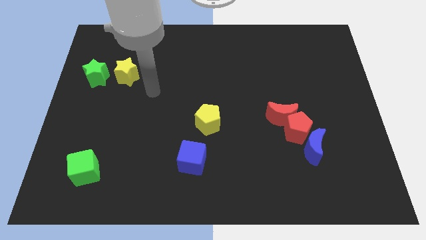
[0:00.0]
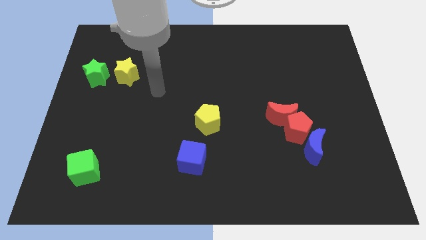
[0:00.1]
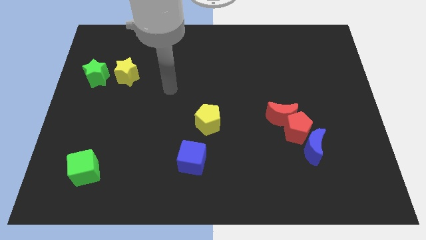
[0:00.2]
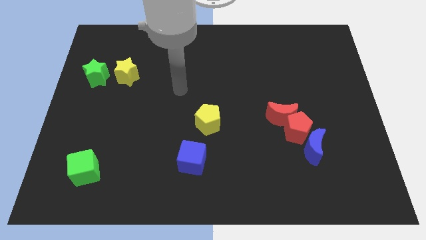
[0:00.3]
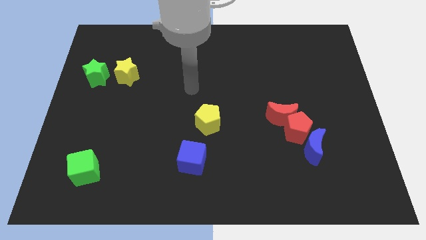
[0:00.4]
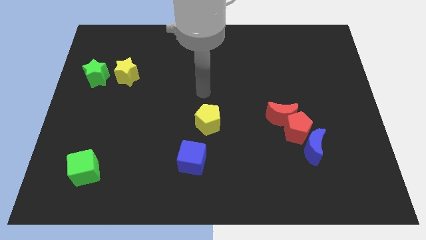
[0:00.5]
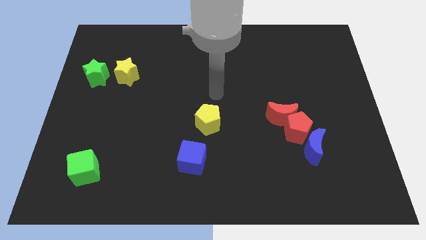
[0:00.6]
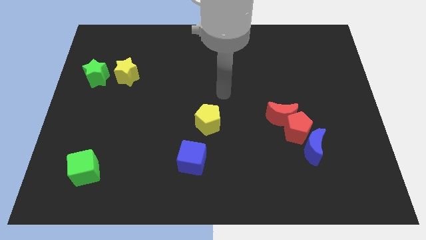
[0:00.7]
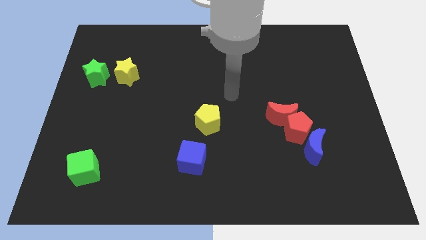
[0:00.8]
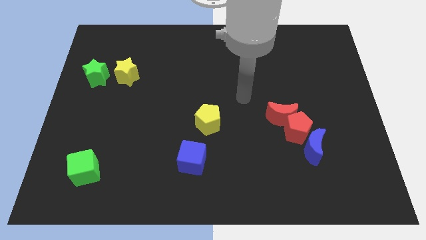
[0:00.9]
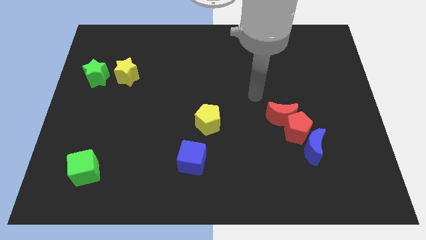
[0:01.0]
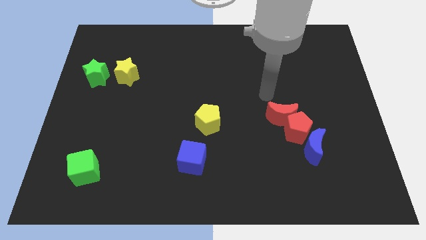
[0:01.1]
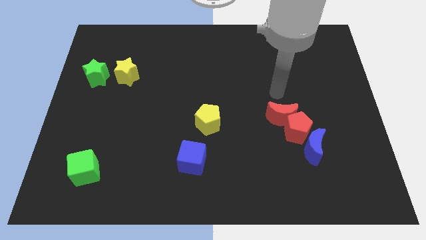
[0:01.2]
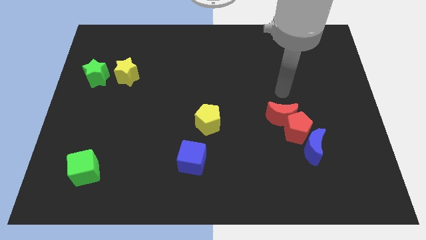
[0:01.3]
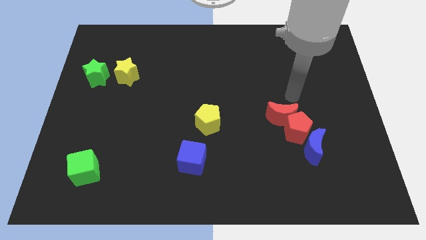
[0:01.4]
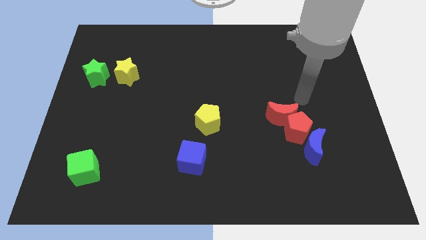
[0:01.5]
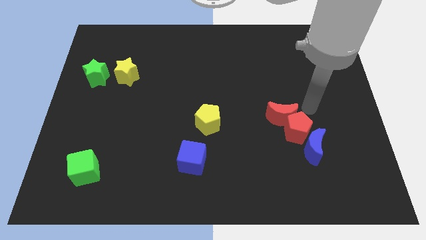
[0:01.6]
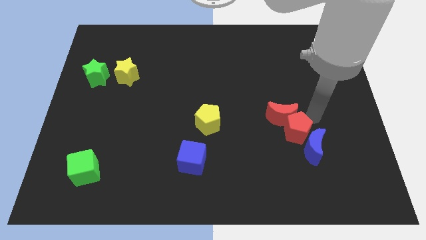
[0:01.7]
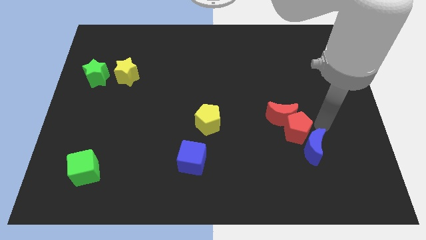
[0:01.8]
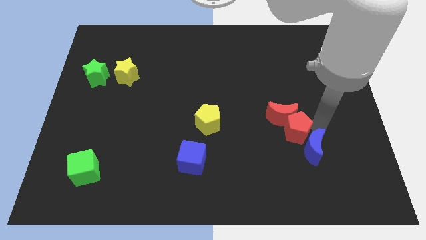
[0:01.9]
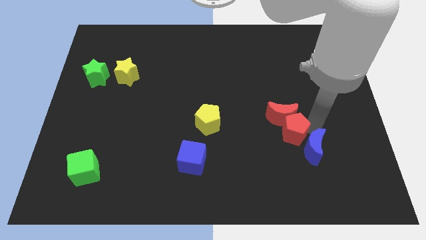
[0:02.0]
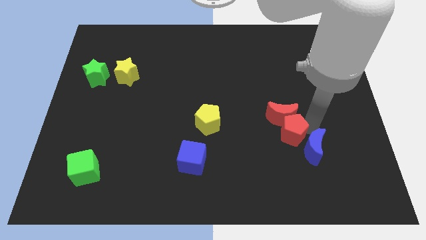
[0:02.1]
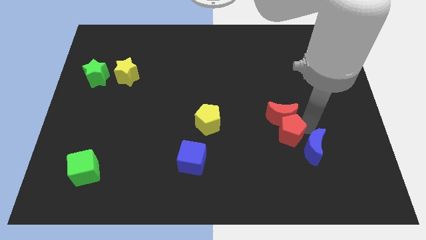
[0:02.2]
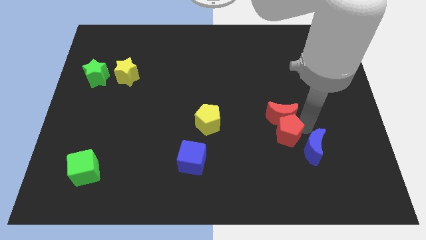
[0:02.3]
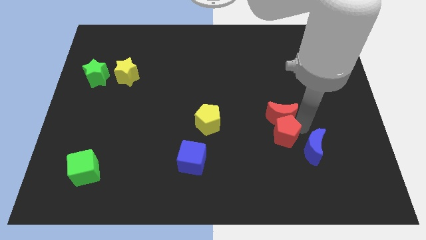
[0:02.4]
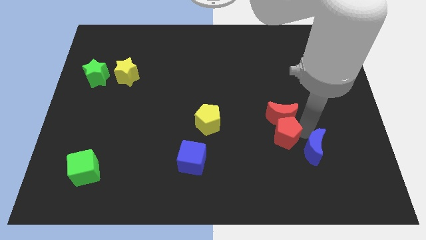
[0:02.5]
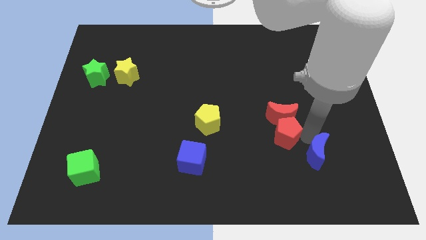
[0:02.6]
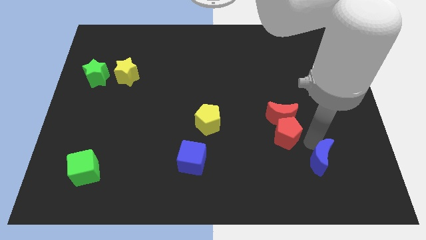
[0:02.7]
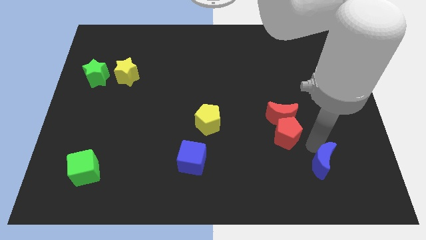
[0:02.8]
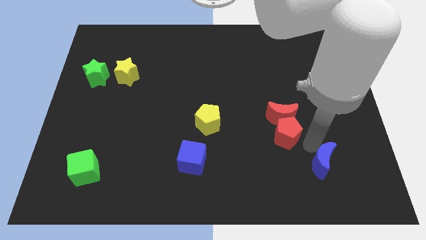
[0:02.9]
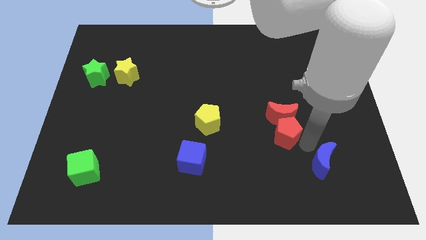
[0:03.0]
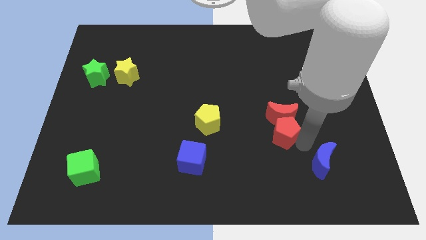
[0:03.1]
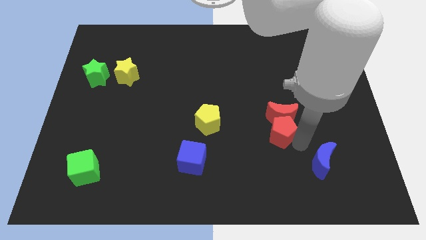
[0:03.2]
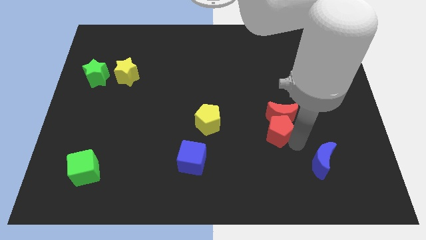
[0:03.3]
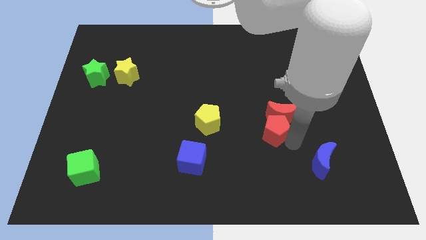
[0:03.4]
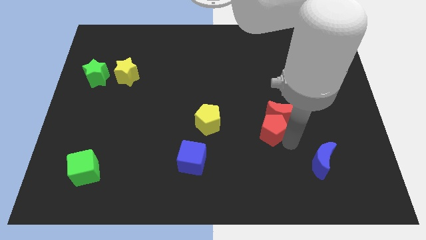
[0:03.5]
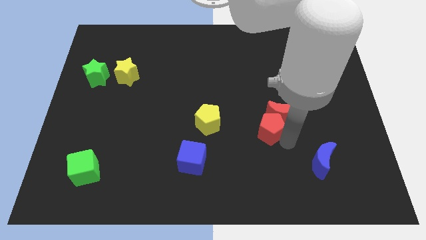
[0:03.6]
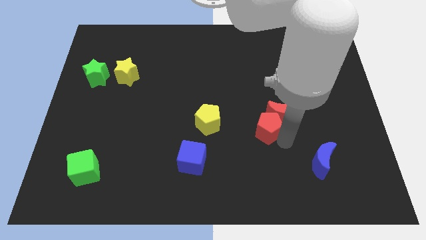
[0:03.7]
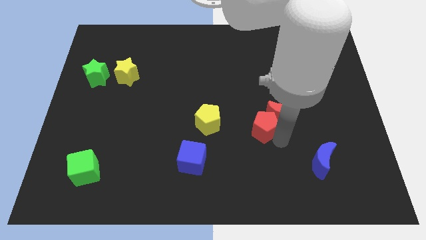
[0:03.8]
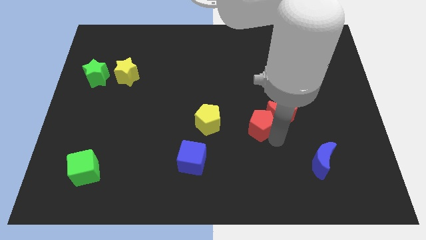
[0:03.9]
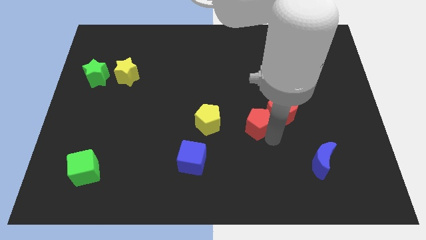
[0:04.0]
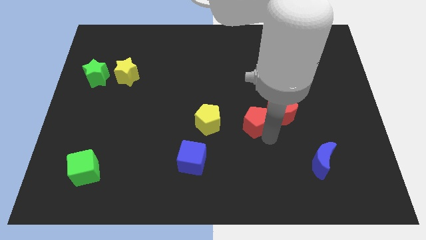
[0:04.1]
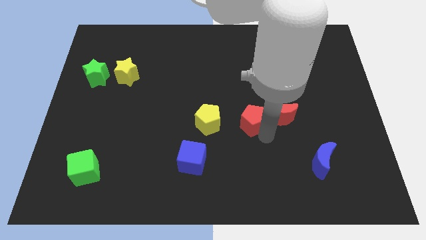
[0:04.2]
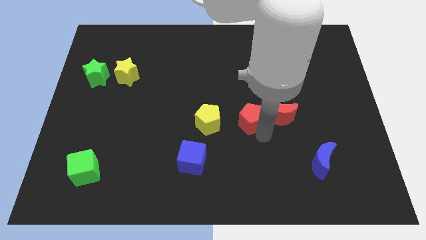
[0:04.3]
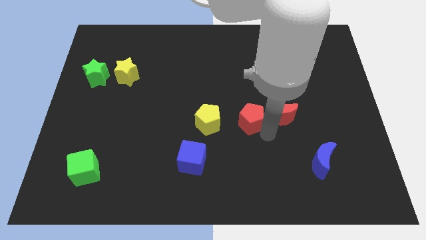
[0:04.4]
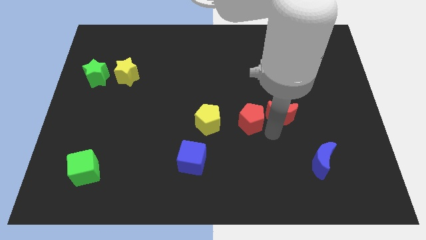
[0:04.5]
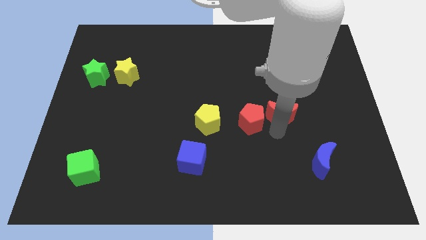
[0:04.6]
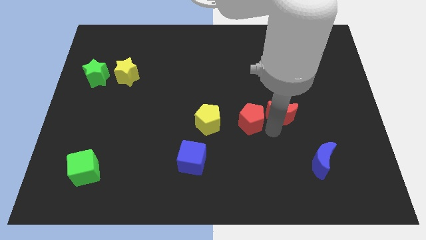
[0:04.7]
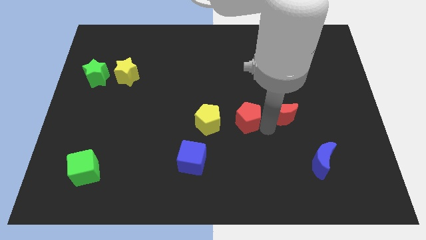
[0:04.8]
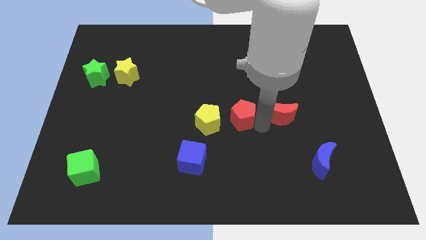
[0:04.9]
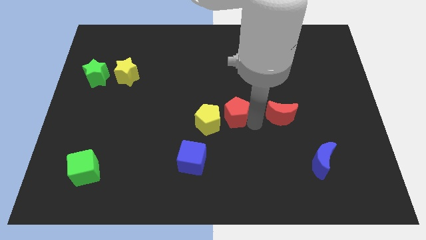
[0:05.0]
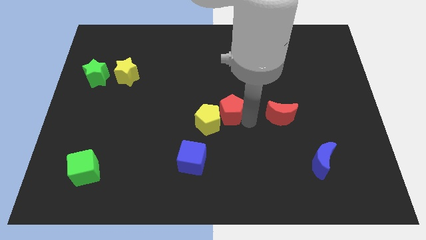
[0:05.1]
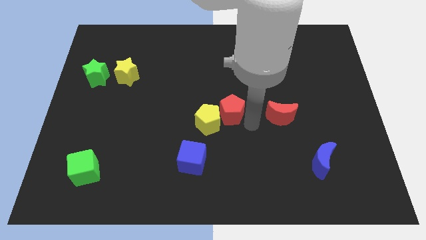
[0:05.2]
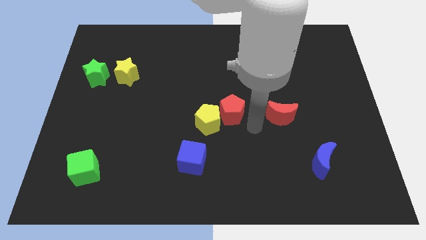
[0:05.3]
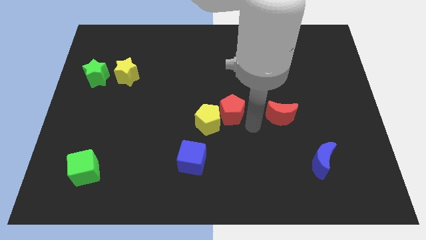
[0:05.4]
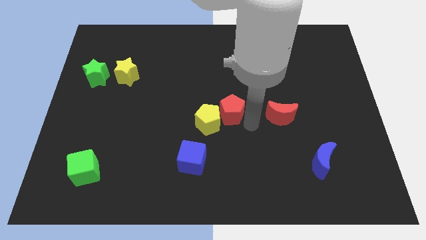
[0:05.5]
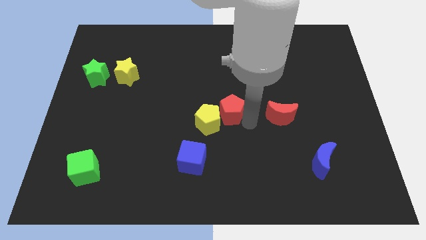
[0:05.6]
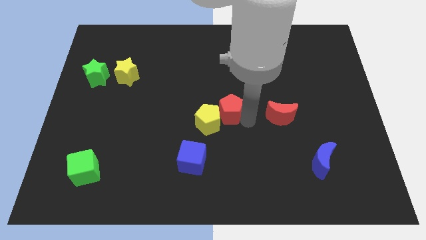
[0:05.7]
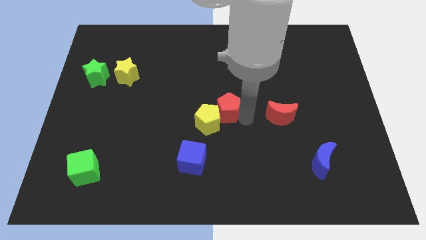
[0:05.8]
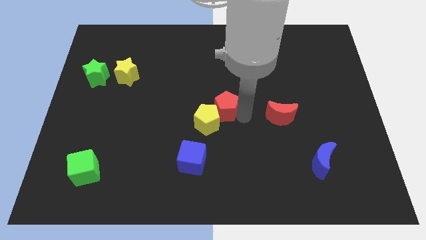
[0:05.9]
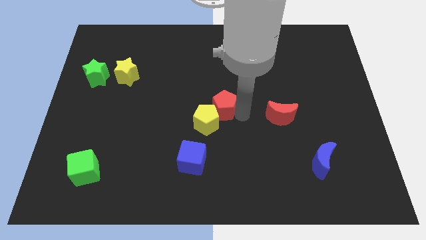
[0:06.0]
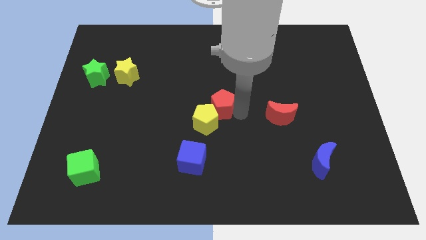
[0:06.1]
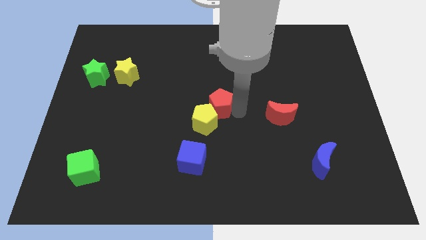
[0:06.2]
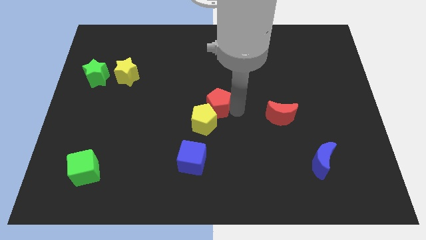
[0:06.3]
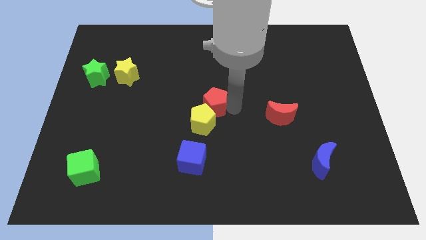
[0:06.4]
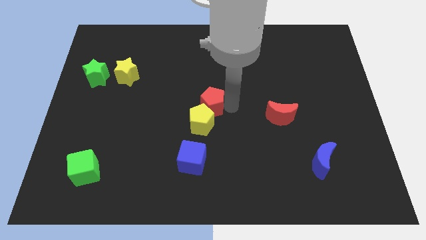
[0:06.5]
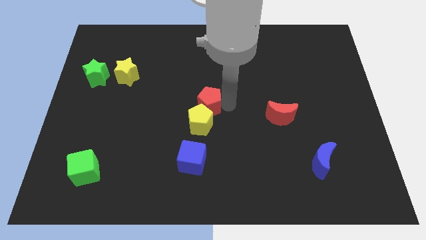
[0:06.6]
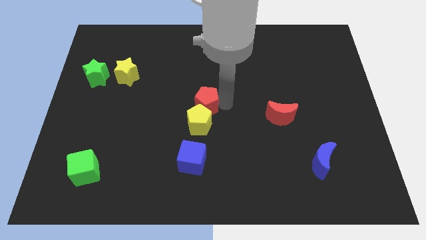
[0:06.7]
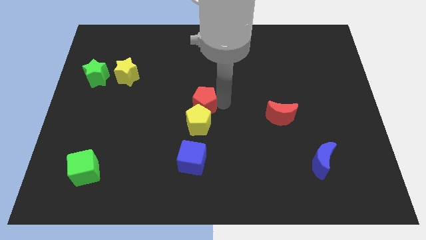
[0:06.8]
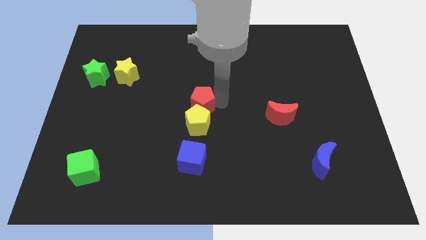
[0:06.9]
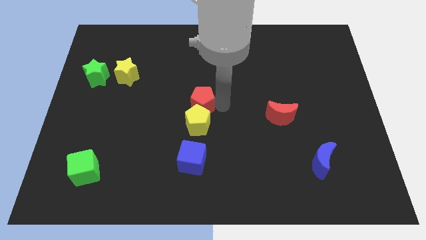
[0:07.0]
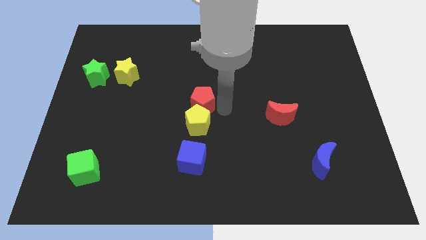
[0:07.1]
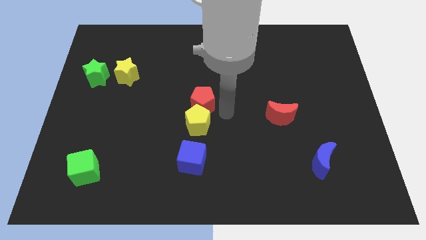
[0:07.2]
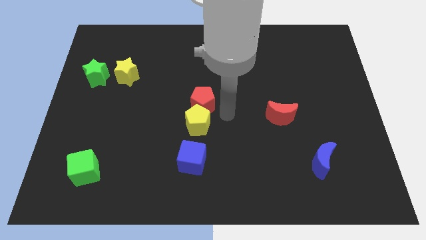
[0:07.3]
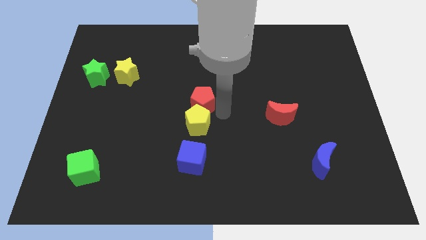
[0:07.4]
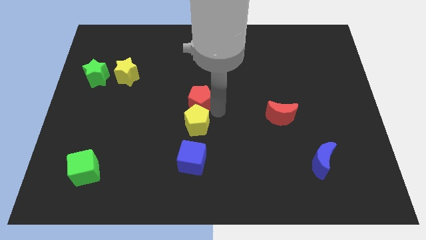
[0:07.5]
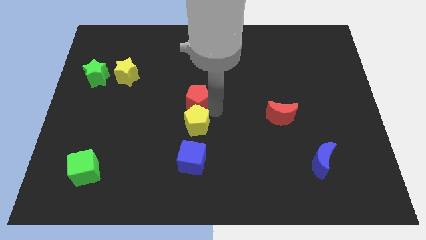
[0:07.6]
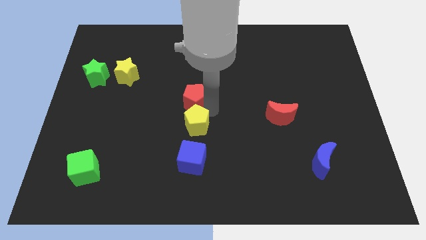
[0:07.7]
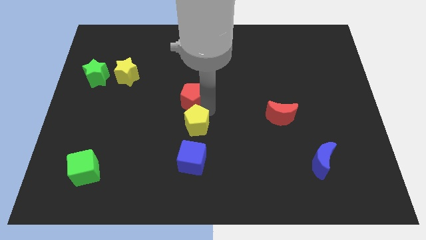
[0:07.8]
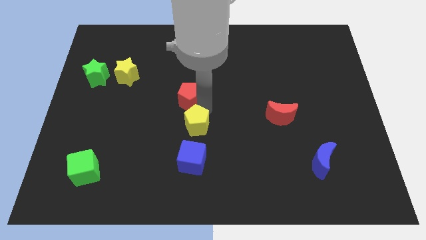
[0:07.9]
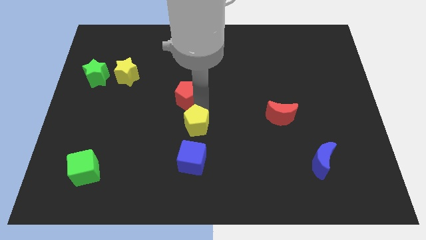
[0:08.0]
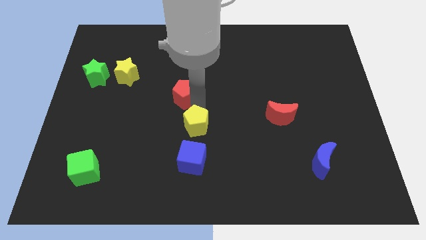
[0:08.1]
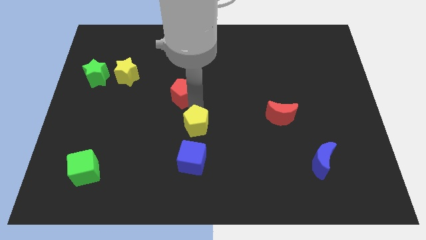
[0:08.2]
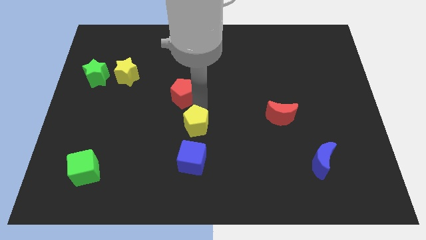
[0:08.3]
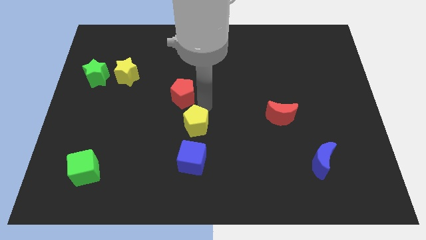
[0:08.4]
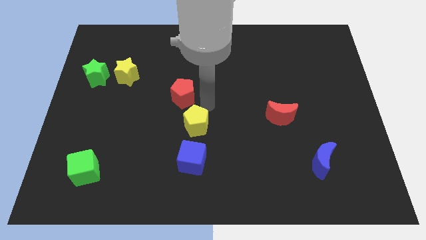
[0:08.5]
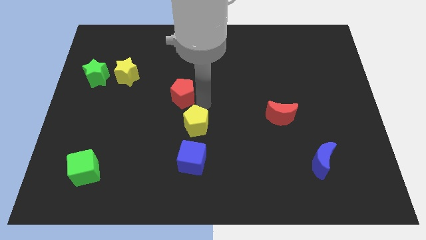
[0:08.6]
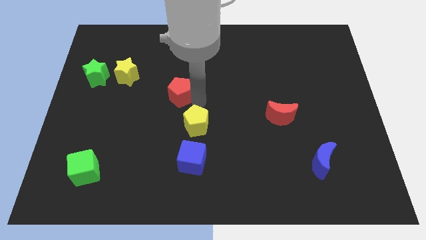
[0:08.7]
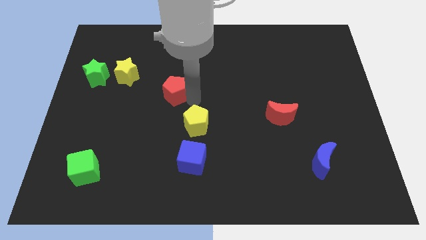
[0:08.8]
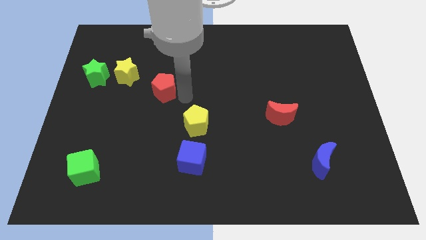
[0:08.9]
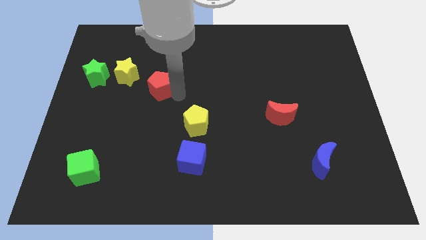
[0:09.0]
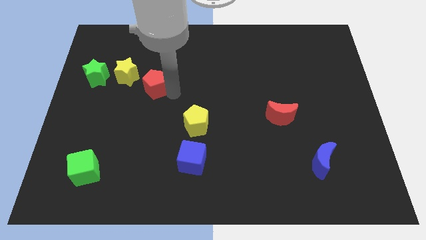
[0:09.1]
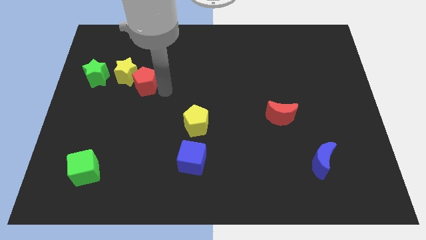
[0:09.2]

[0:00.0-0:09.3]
push the red pentagon next to the yellow star
